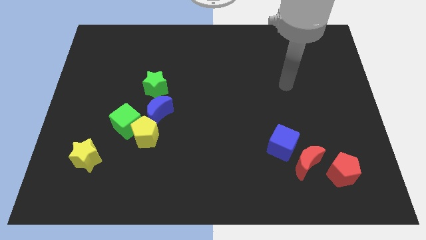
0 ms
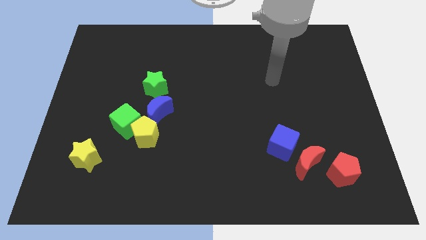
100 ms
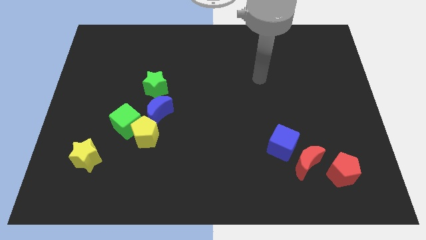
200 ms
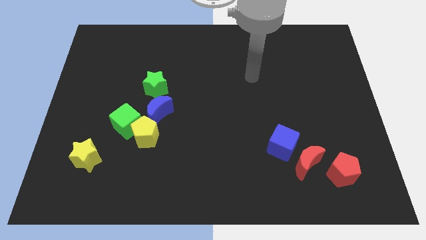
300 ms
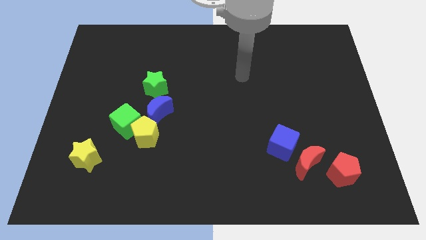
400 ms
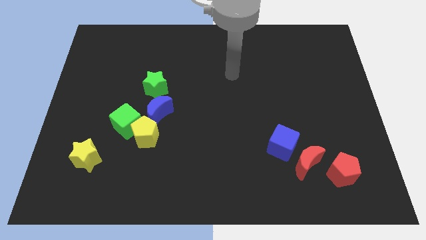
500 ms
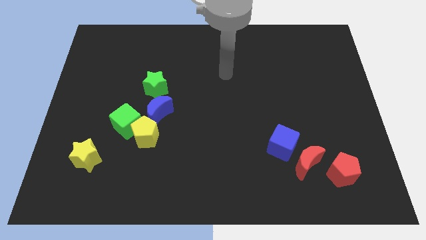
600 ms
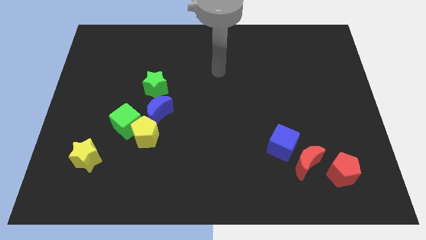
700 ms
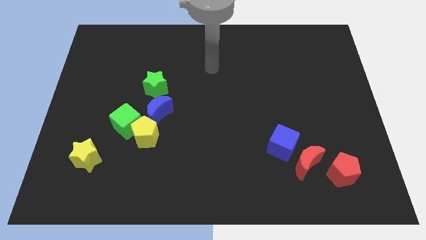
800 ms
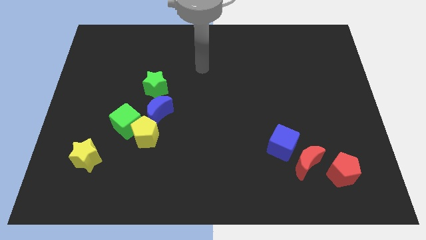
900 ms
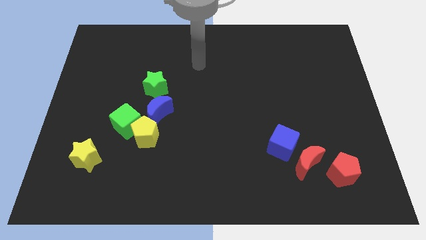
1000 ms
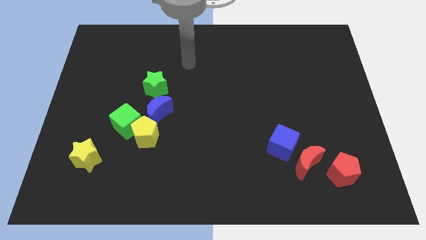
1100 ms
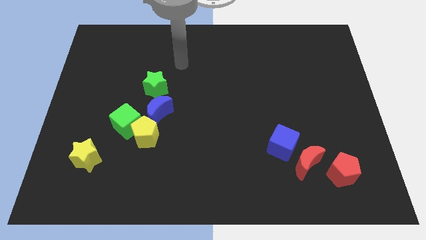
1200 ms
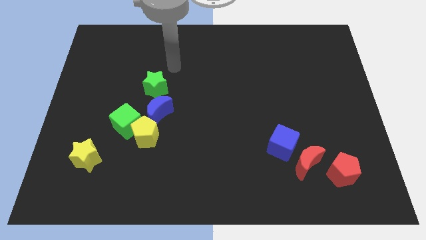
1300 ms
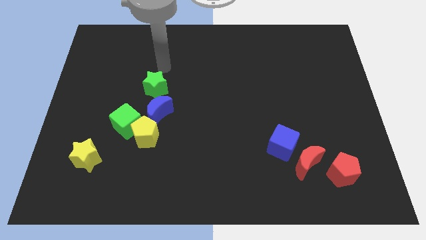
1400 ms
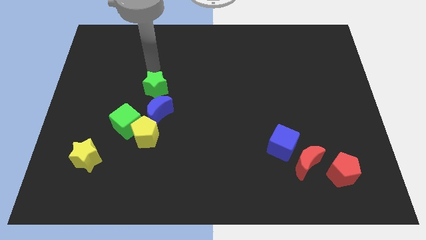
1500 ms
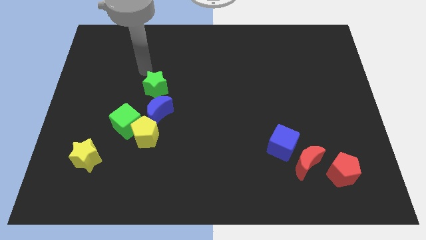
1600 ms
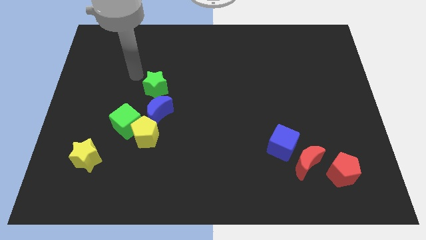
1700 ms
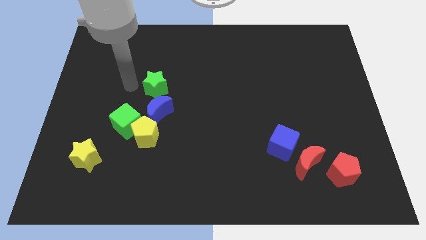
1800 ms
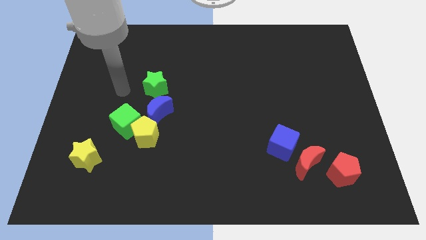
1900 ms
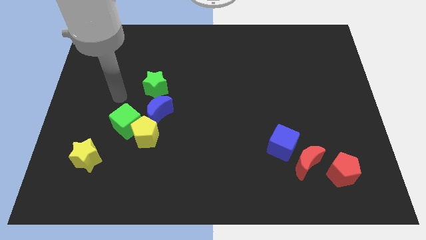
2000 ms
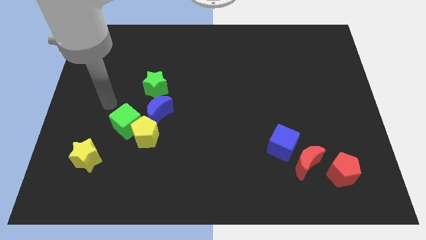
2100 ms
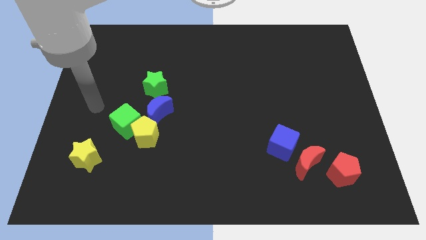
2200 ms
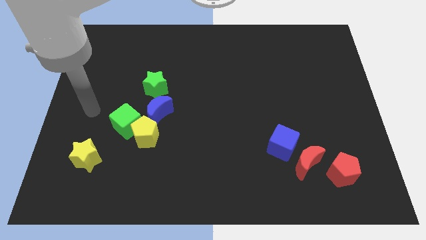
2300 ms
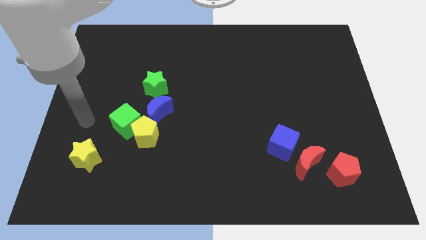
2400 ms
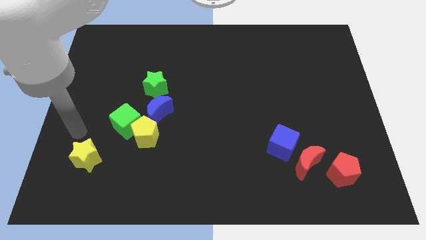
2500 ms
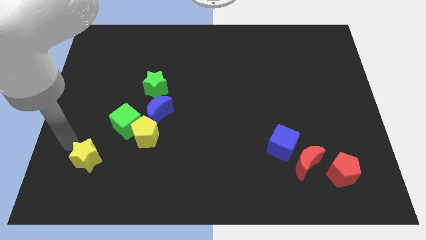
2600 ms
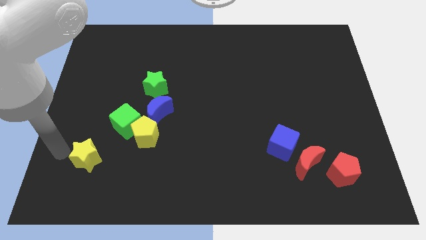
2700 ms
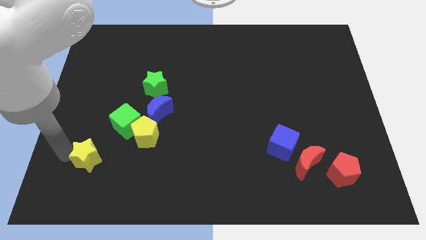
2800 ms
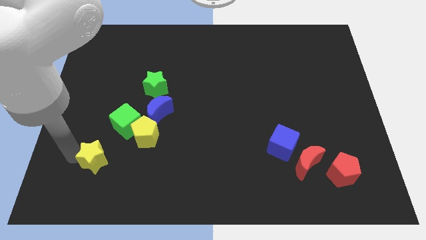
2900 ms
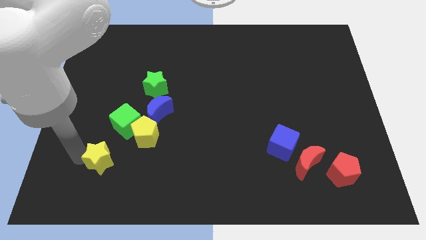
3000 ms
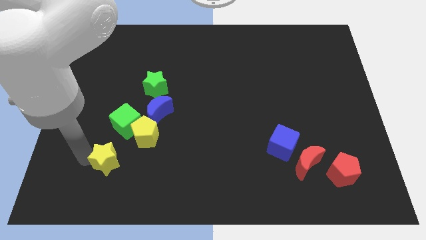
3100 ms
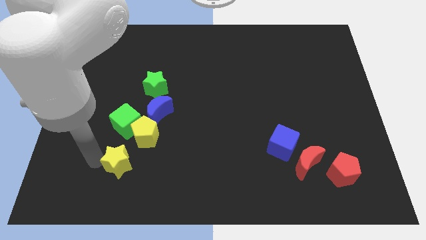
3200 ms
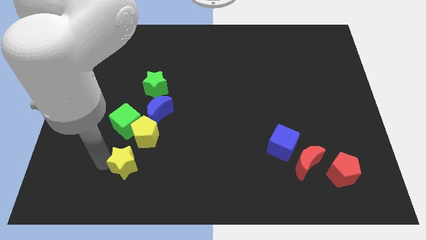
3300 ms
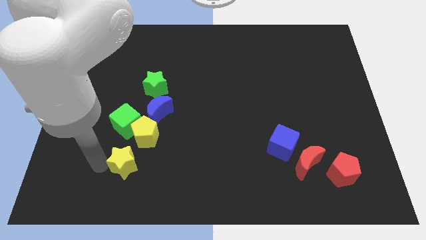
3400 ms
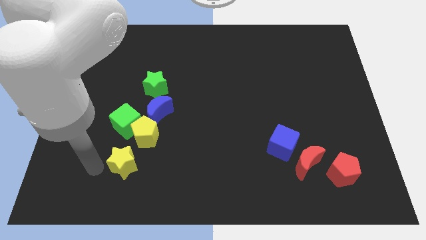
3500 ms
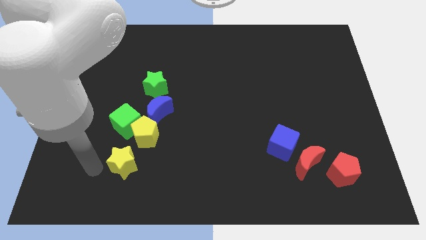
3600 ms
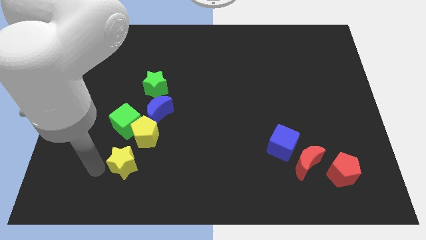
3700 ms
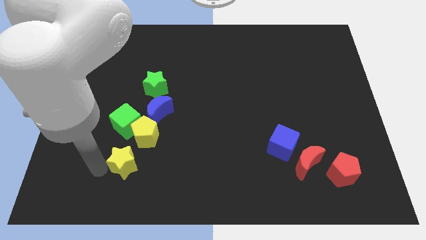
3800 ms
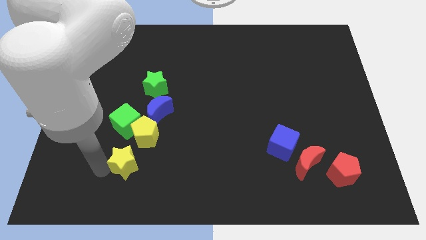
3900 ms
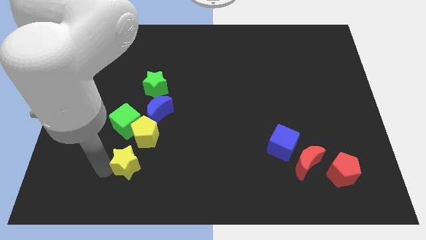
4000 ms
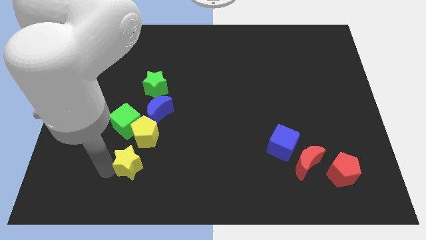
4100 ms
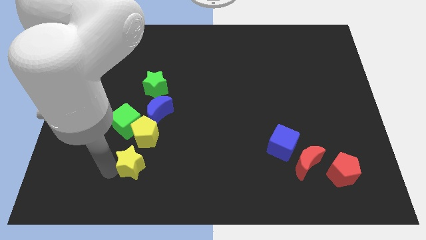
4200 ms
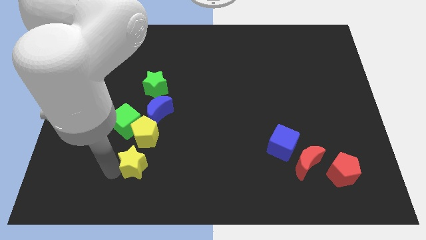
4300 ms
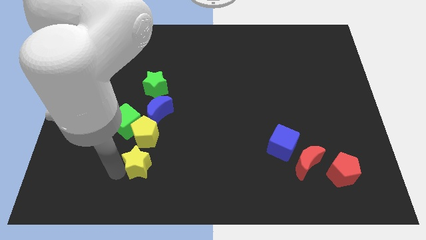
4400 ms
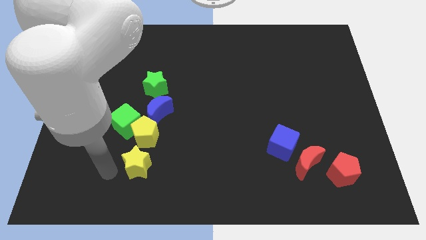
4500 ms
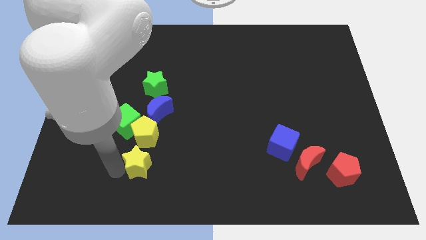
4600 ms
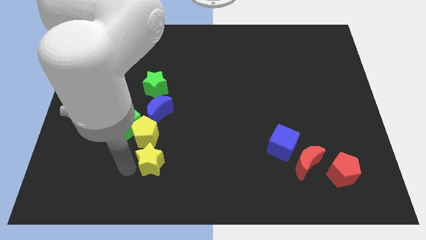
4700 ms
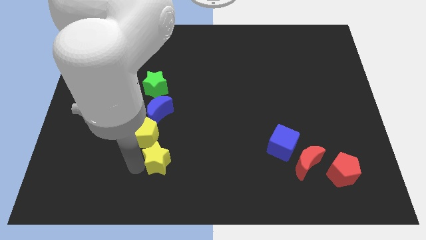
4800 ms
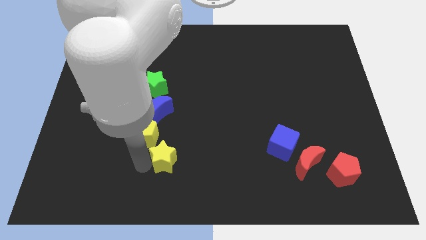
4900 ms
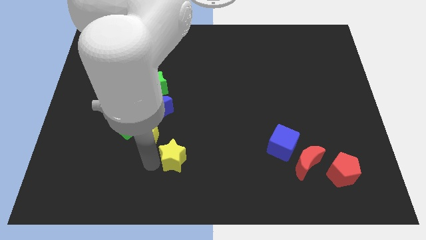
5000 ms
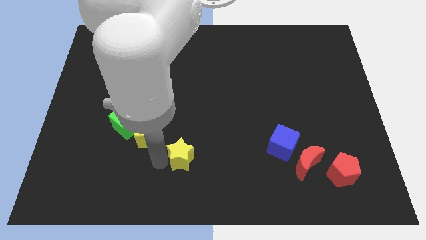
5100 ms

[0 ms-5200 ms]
move the yellow star right

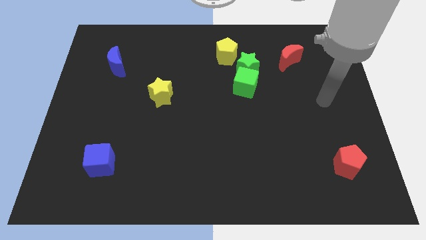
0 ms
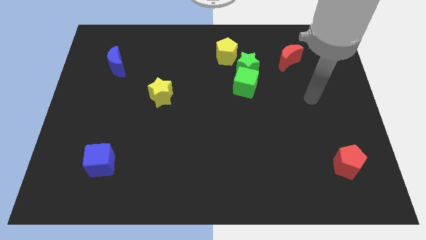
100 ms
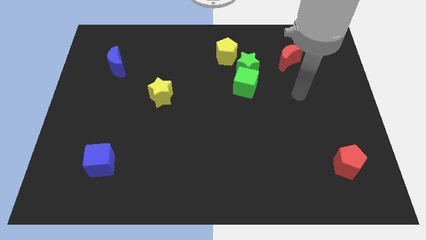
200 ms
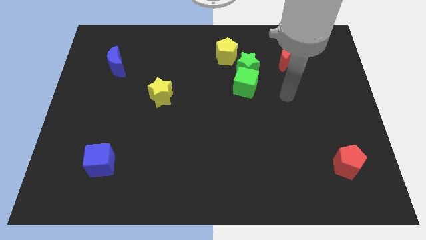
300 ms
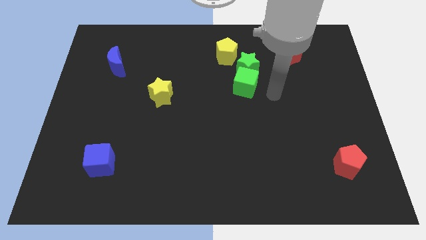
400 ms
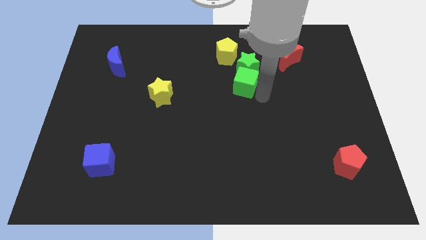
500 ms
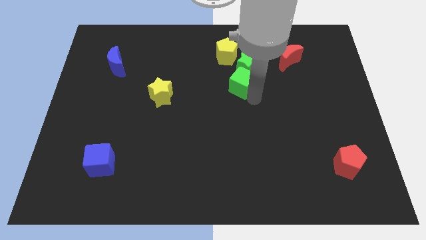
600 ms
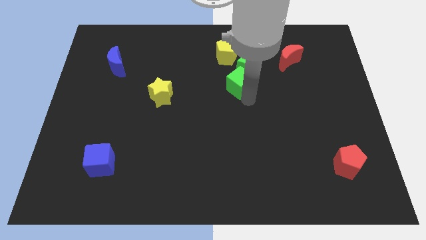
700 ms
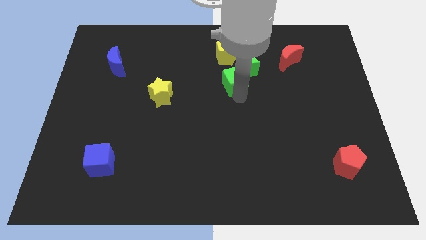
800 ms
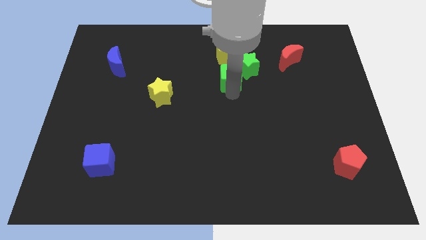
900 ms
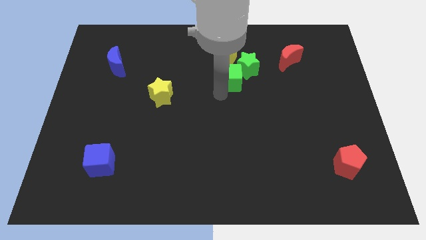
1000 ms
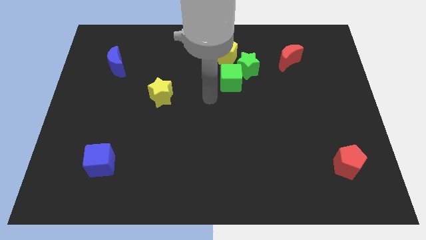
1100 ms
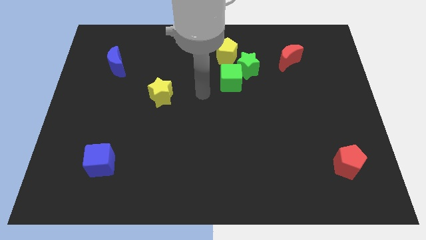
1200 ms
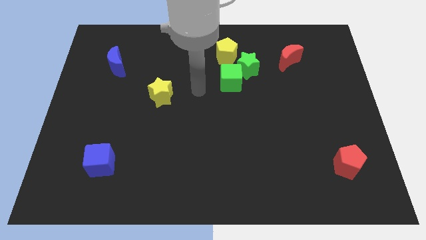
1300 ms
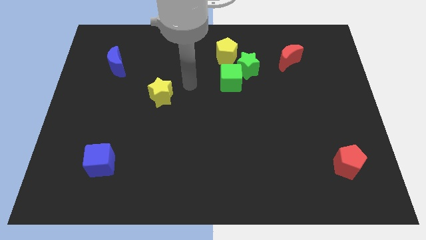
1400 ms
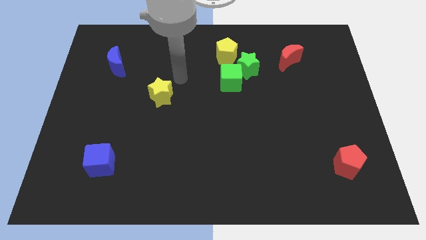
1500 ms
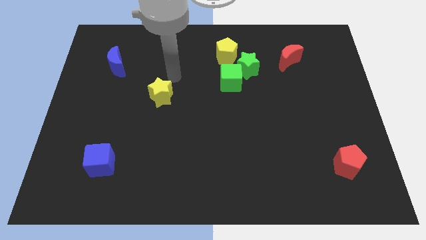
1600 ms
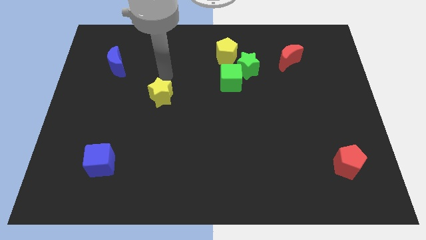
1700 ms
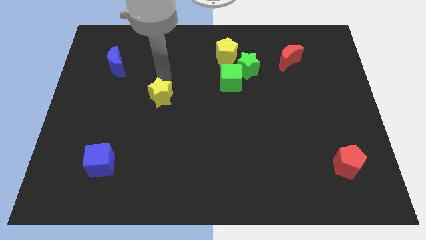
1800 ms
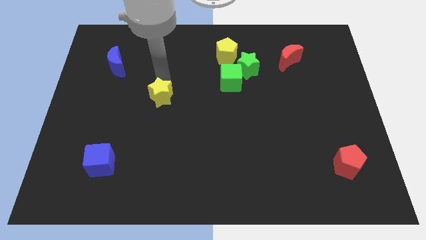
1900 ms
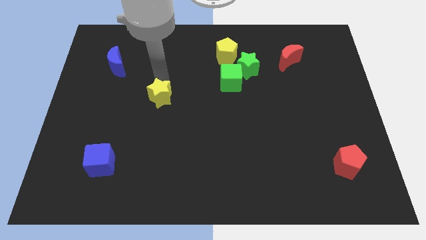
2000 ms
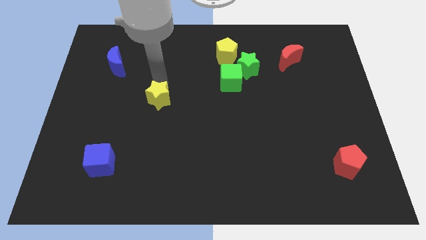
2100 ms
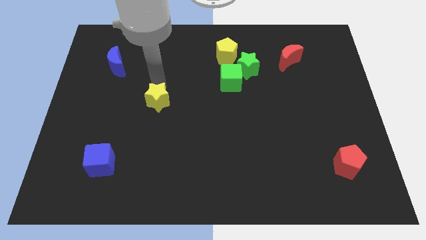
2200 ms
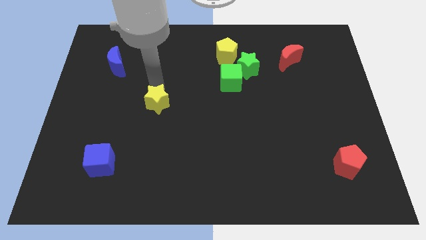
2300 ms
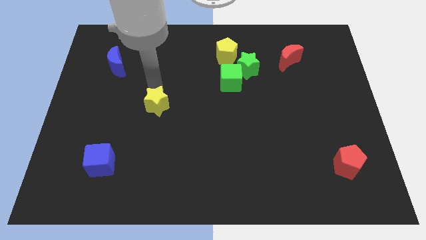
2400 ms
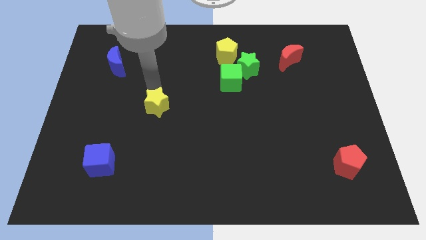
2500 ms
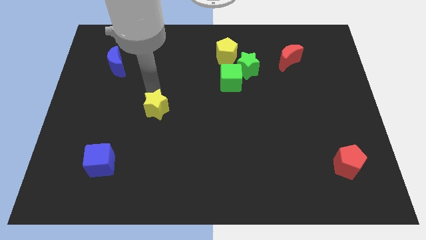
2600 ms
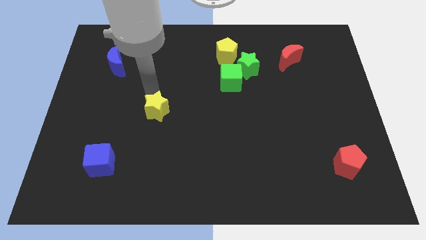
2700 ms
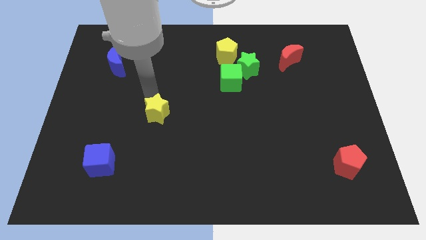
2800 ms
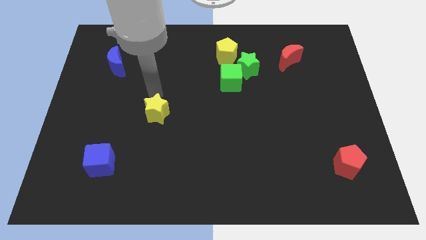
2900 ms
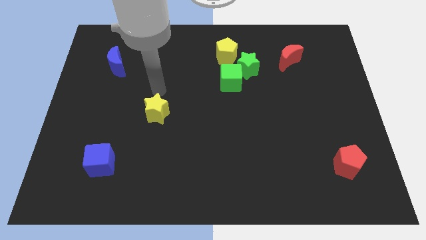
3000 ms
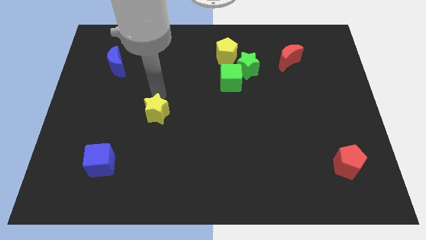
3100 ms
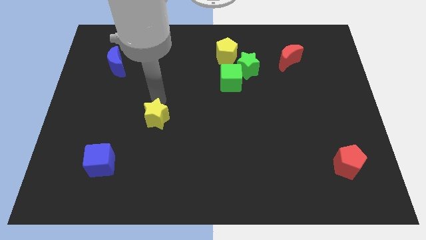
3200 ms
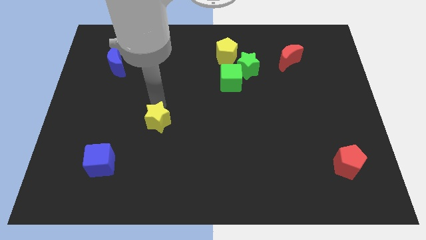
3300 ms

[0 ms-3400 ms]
slightly slide the yellow star down
